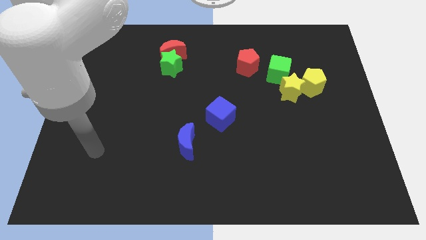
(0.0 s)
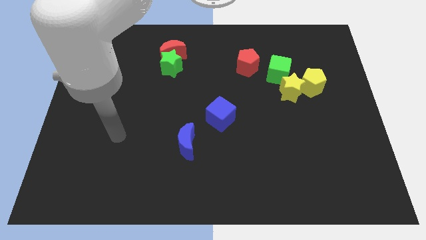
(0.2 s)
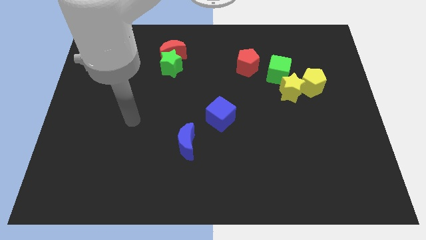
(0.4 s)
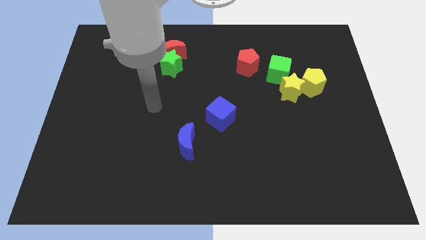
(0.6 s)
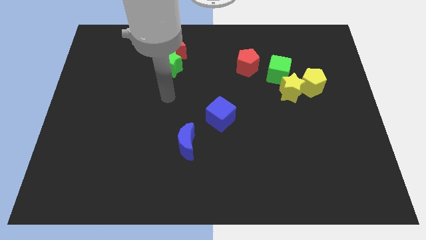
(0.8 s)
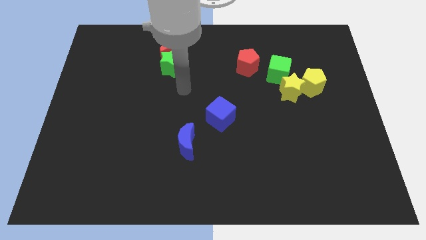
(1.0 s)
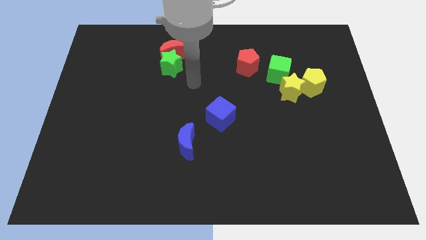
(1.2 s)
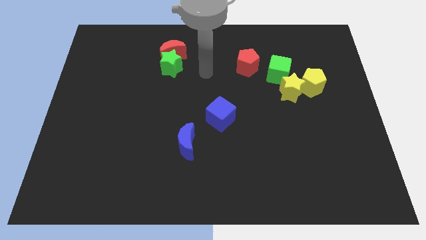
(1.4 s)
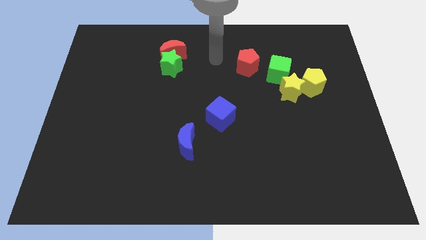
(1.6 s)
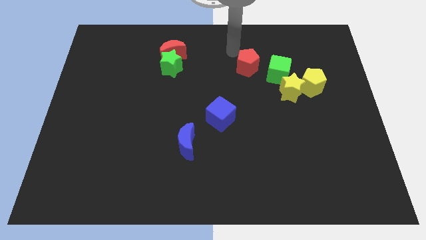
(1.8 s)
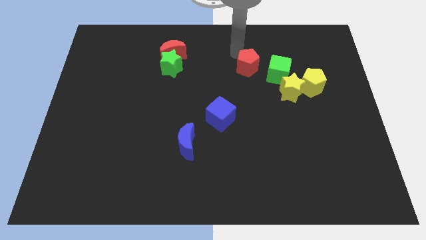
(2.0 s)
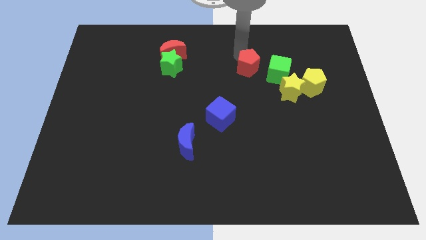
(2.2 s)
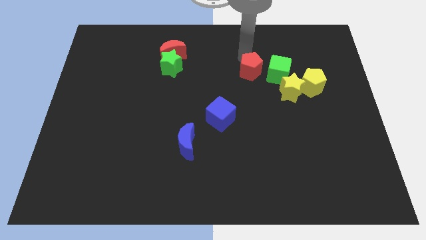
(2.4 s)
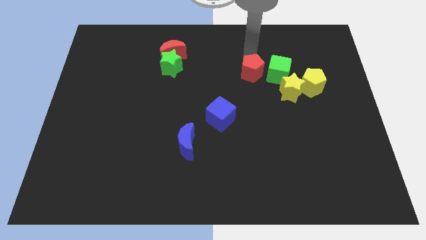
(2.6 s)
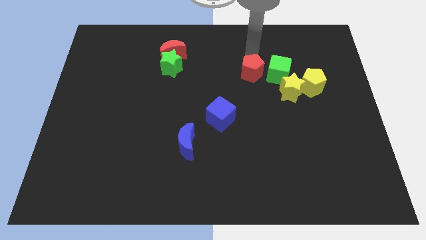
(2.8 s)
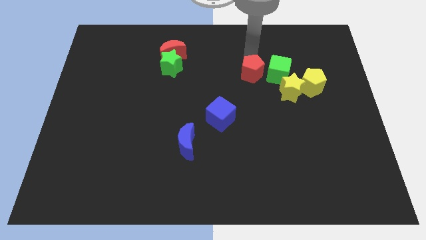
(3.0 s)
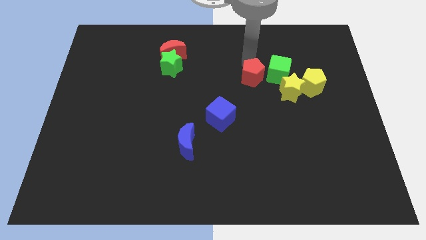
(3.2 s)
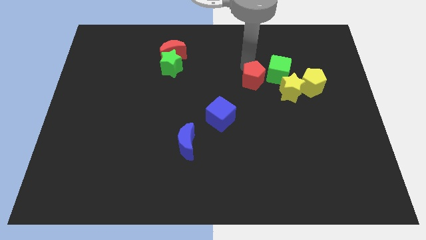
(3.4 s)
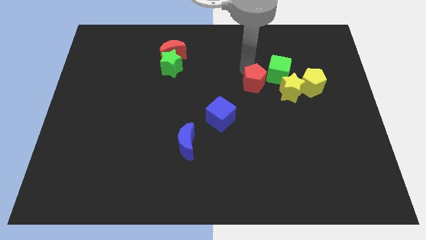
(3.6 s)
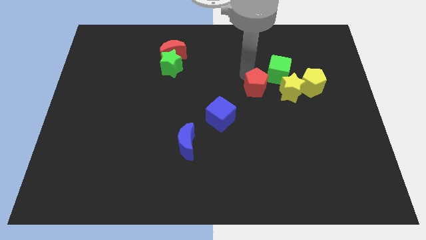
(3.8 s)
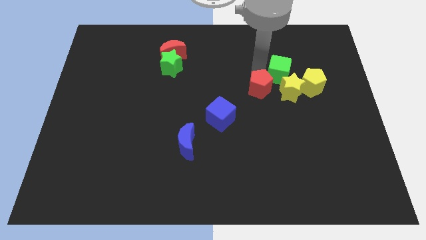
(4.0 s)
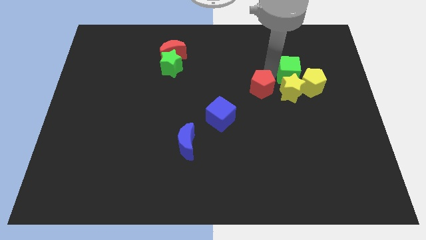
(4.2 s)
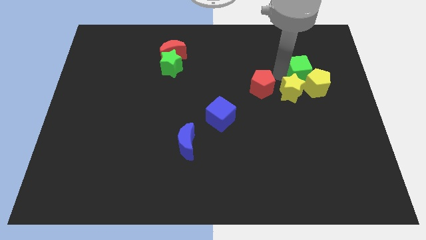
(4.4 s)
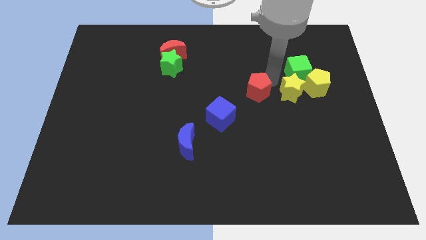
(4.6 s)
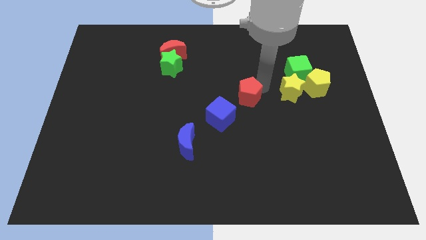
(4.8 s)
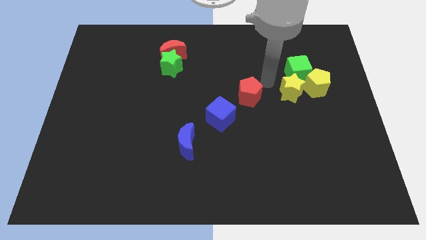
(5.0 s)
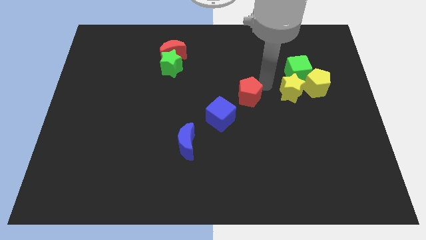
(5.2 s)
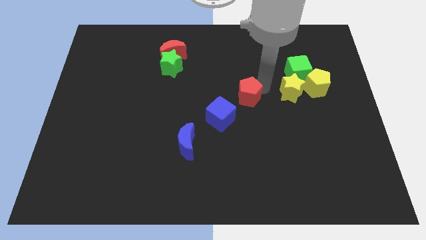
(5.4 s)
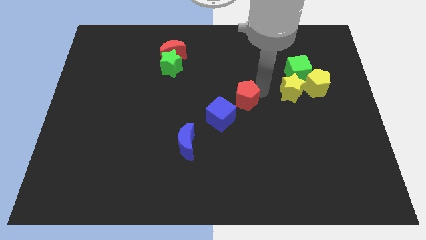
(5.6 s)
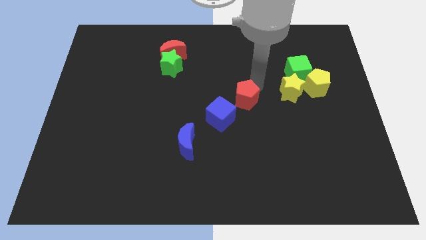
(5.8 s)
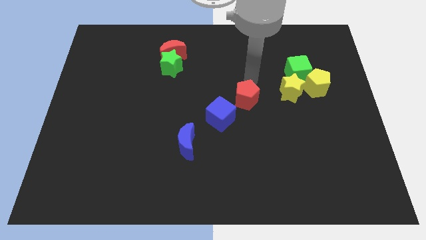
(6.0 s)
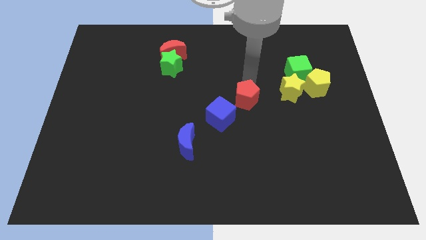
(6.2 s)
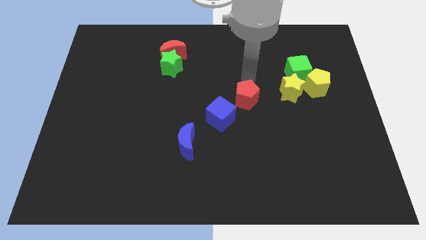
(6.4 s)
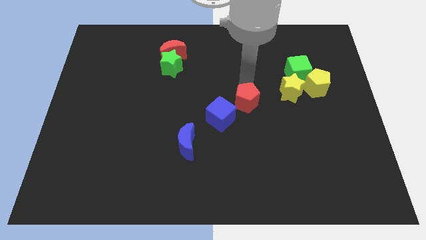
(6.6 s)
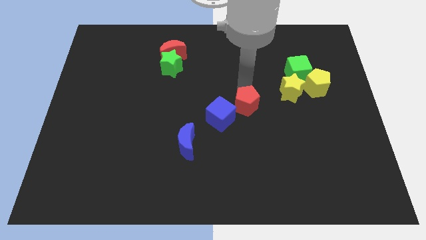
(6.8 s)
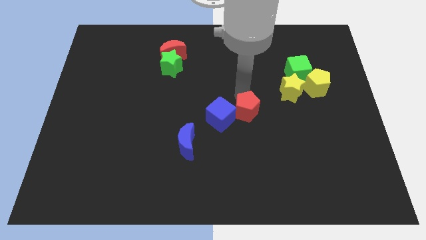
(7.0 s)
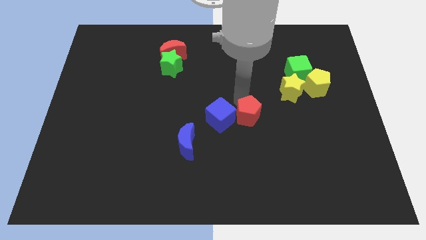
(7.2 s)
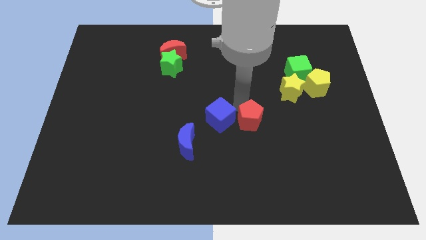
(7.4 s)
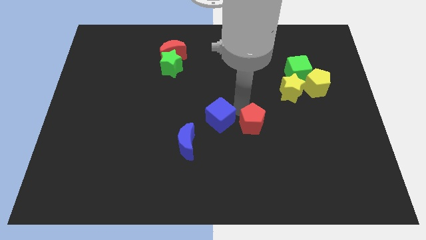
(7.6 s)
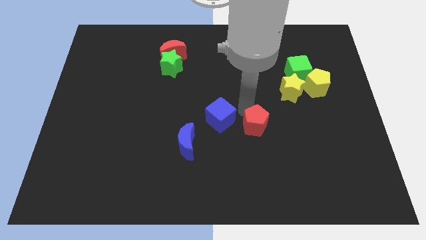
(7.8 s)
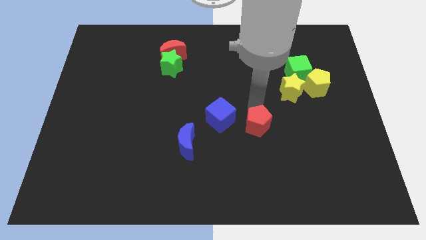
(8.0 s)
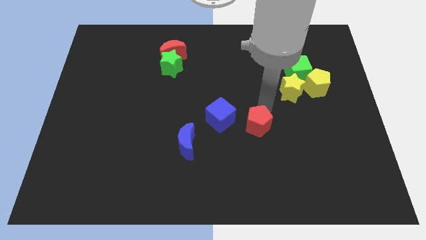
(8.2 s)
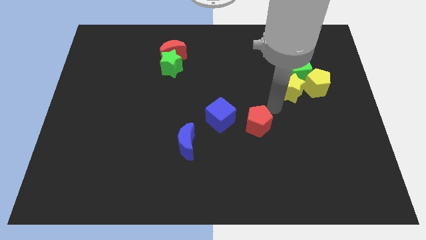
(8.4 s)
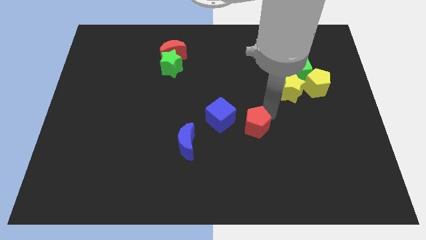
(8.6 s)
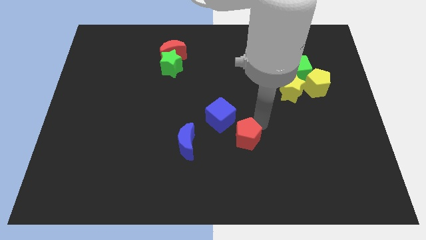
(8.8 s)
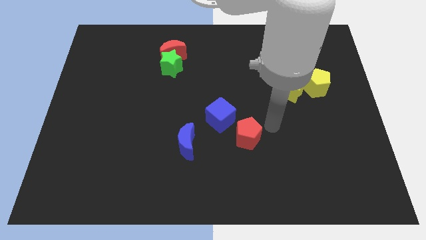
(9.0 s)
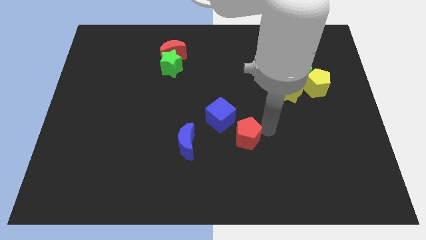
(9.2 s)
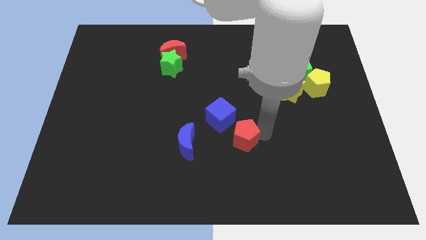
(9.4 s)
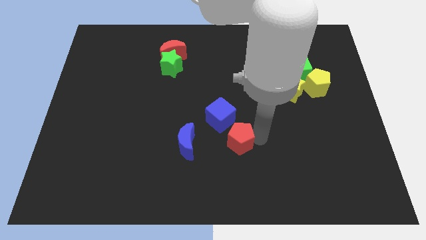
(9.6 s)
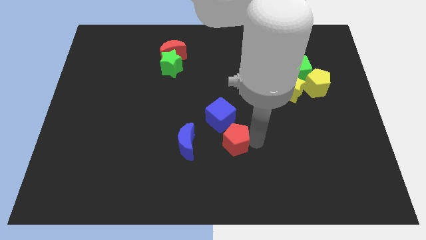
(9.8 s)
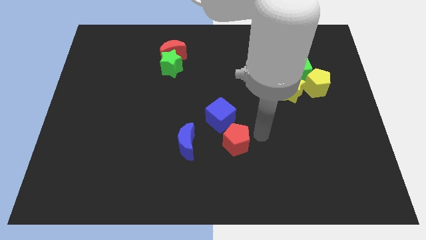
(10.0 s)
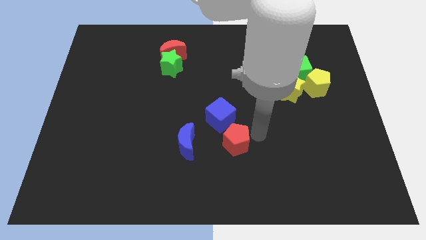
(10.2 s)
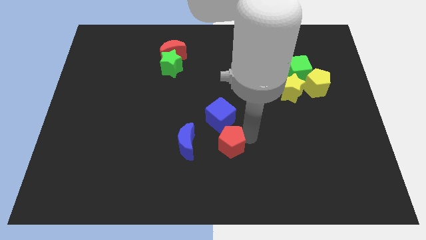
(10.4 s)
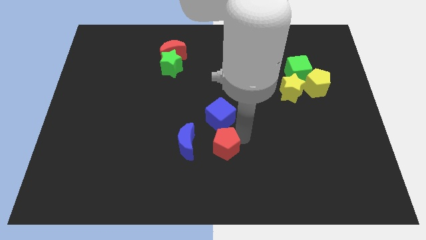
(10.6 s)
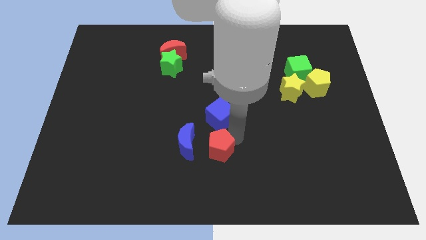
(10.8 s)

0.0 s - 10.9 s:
move the red pentagon to the bottom right of the blue moon

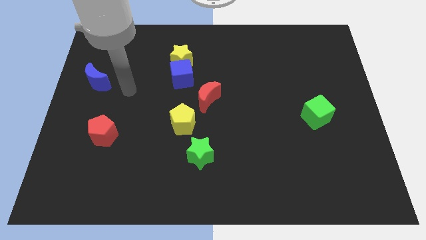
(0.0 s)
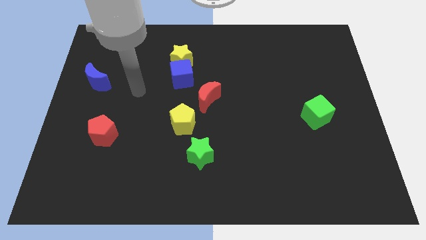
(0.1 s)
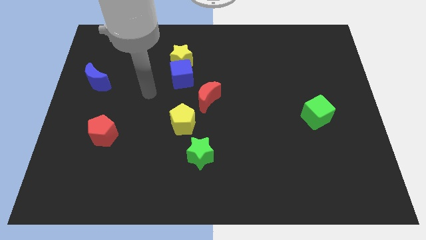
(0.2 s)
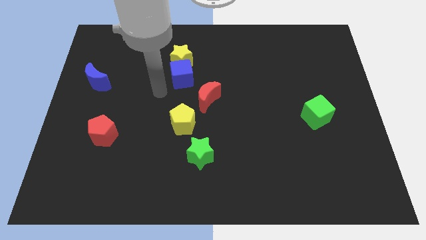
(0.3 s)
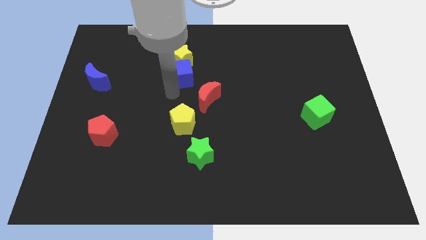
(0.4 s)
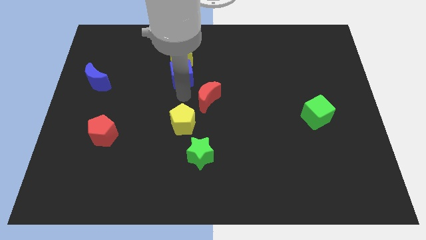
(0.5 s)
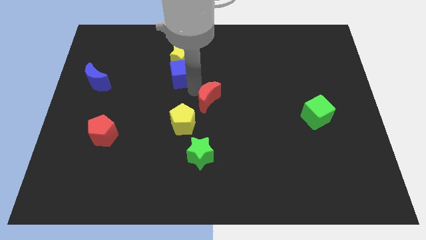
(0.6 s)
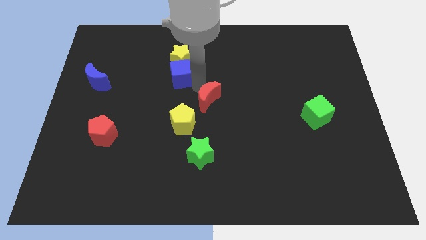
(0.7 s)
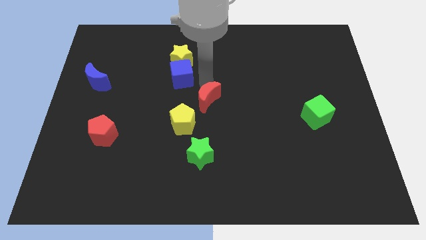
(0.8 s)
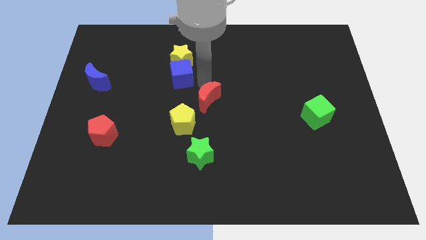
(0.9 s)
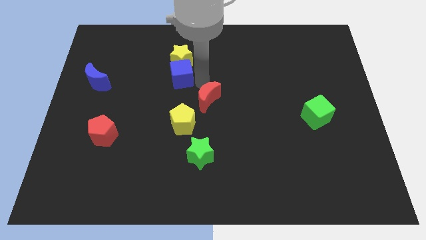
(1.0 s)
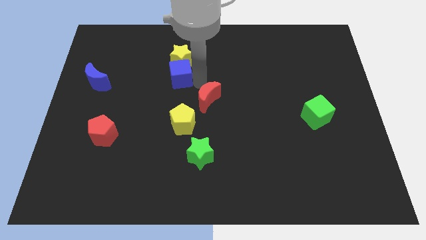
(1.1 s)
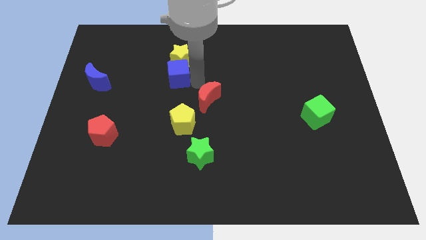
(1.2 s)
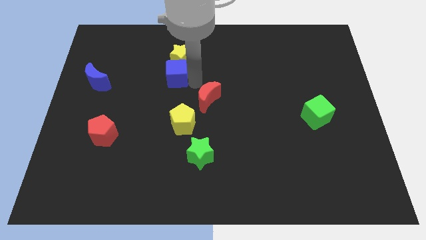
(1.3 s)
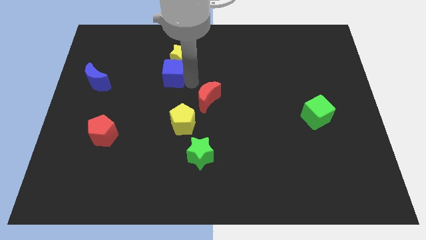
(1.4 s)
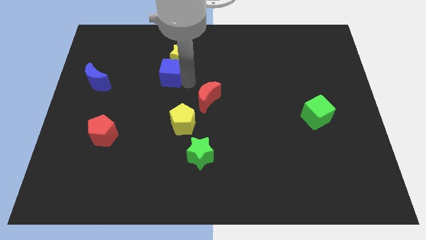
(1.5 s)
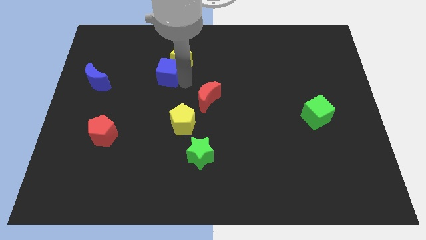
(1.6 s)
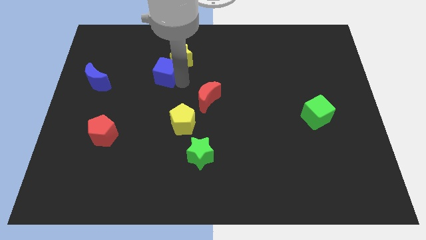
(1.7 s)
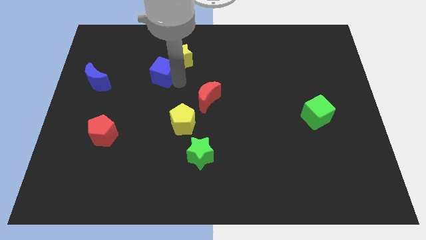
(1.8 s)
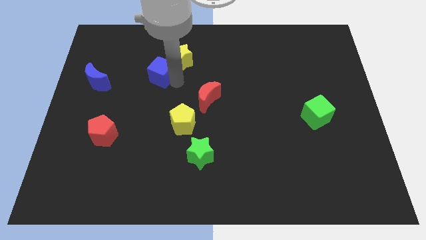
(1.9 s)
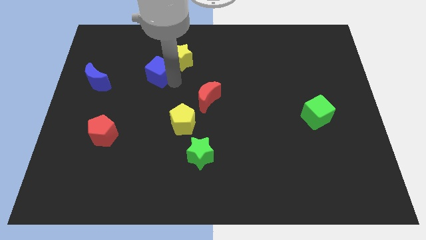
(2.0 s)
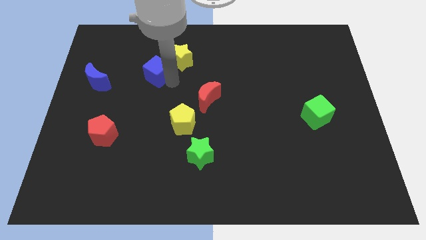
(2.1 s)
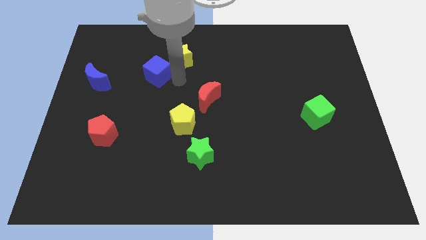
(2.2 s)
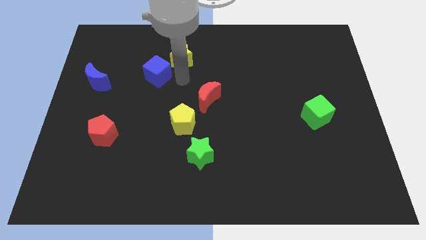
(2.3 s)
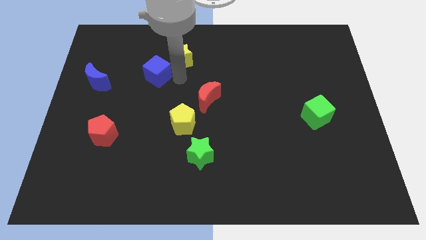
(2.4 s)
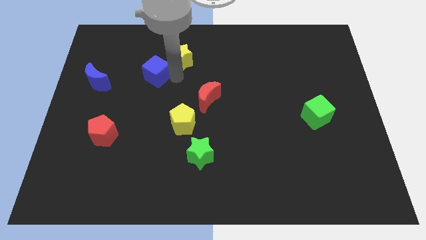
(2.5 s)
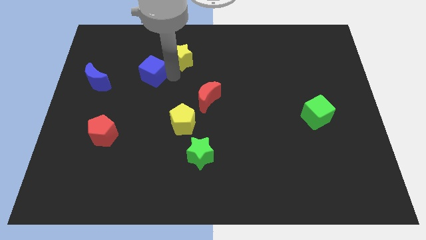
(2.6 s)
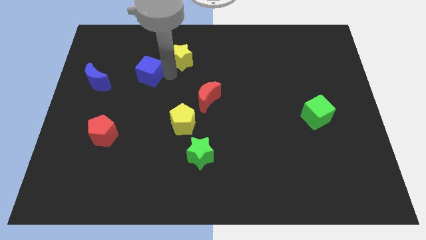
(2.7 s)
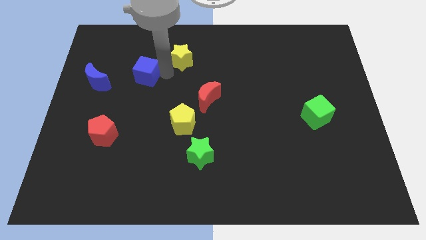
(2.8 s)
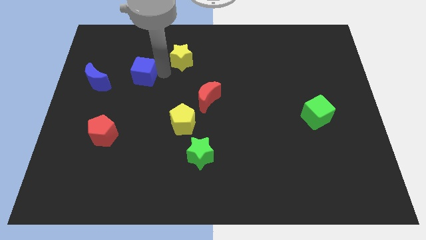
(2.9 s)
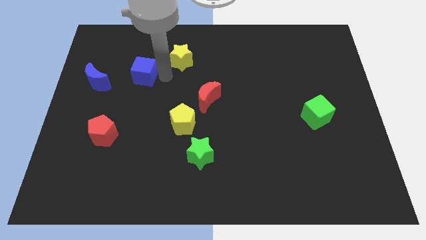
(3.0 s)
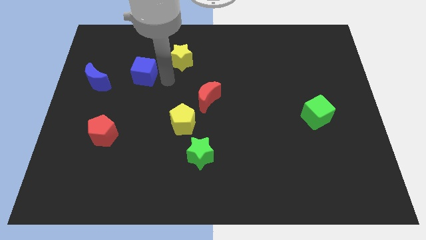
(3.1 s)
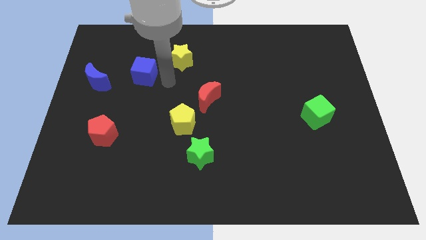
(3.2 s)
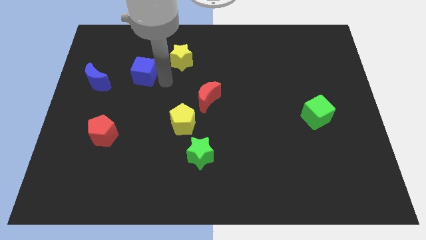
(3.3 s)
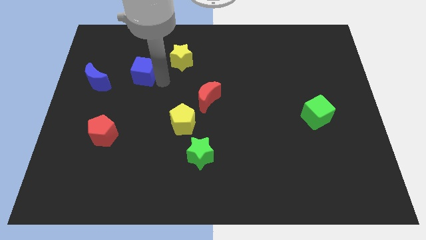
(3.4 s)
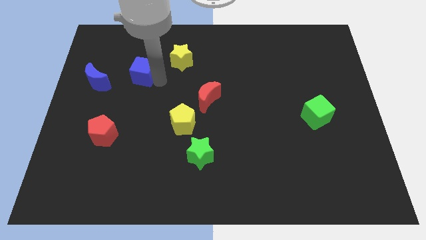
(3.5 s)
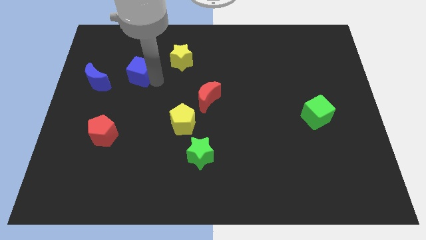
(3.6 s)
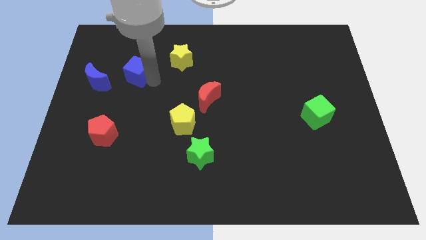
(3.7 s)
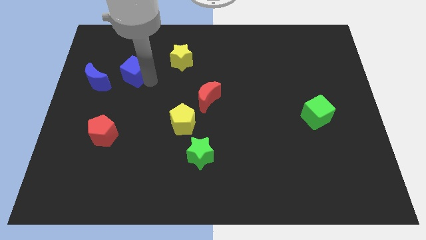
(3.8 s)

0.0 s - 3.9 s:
move the blue cube to the top right side of the blue moon
